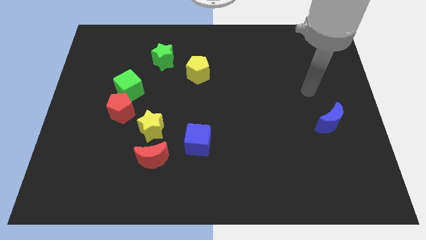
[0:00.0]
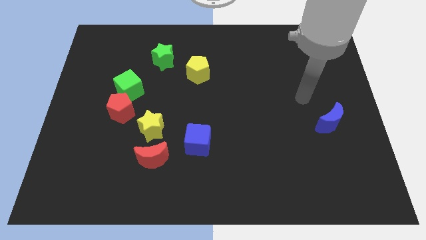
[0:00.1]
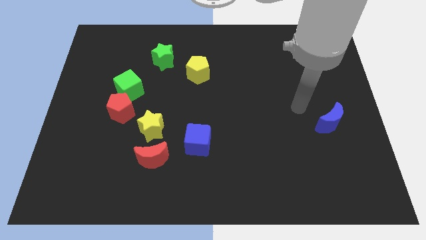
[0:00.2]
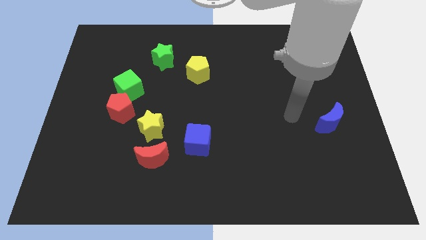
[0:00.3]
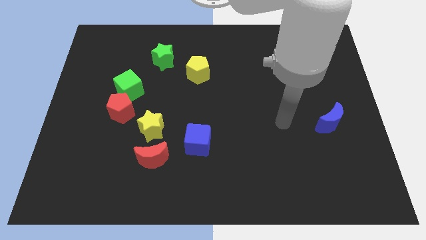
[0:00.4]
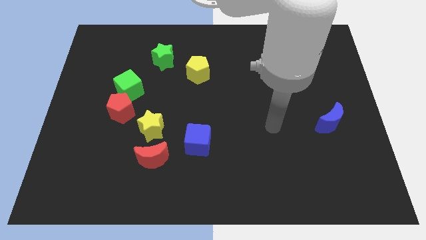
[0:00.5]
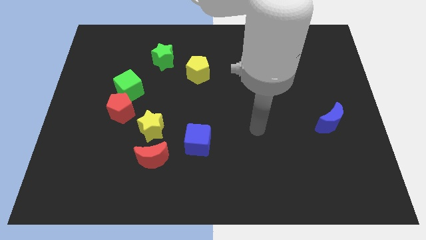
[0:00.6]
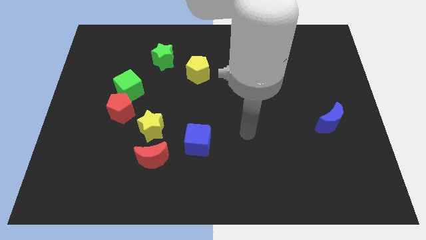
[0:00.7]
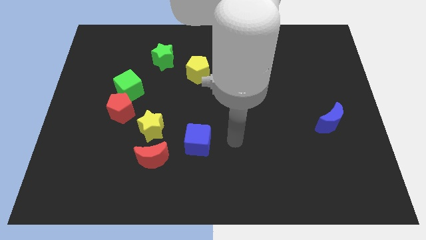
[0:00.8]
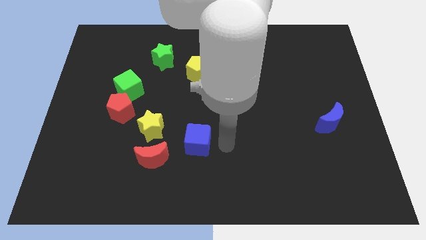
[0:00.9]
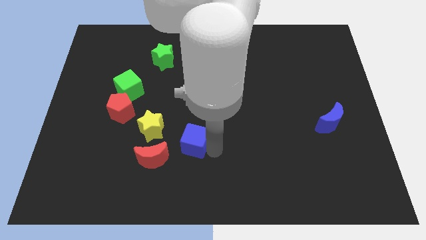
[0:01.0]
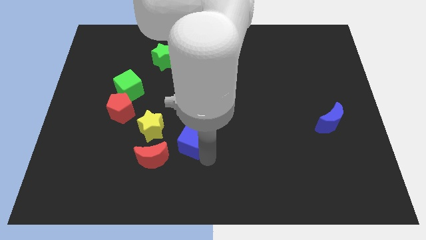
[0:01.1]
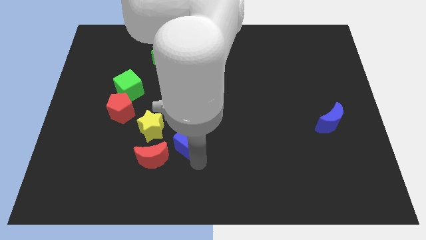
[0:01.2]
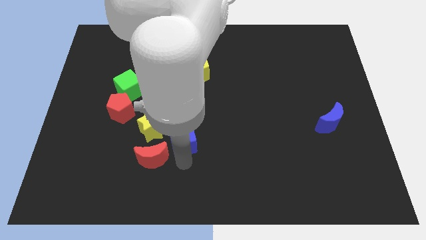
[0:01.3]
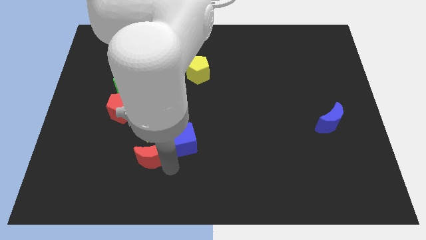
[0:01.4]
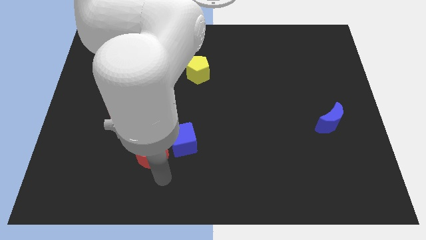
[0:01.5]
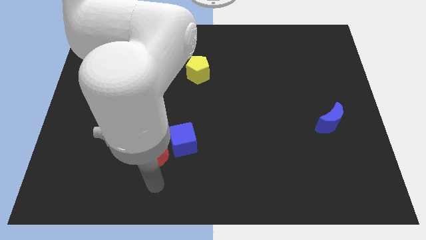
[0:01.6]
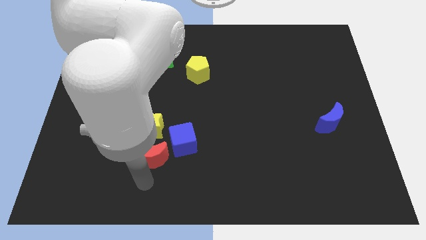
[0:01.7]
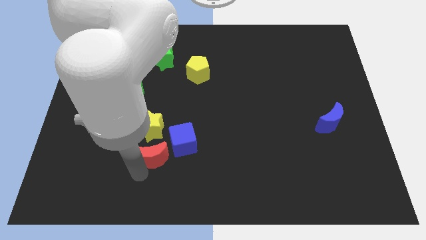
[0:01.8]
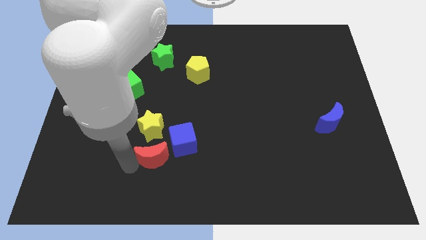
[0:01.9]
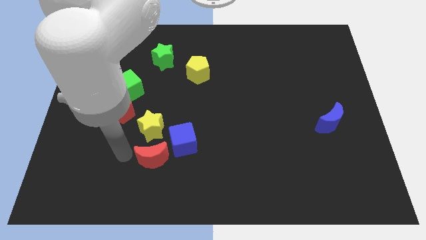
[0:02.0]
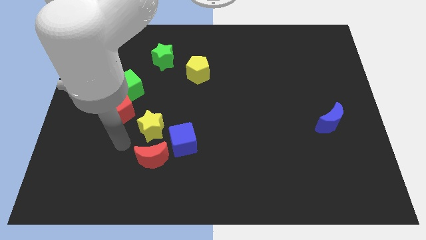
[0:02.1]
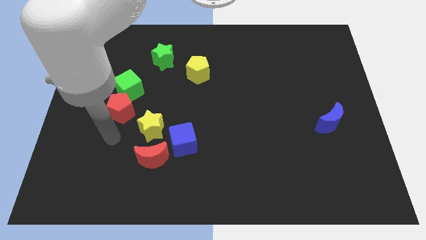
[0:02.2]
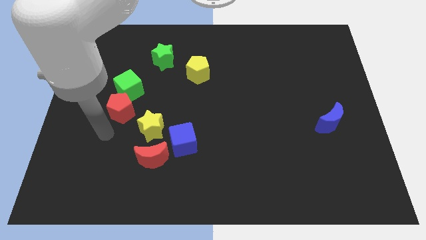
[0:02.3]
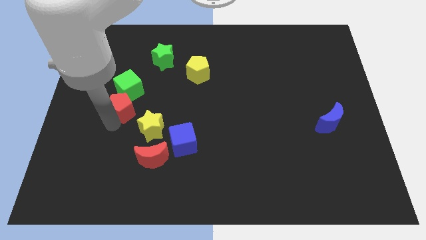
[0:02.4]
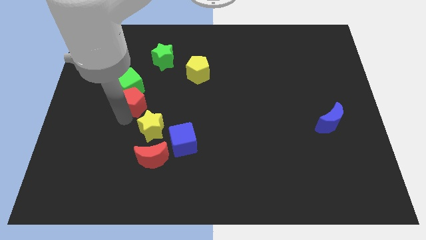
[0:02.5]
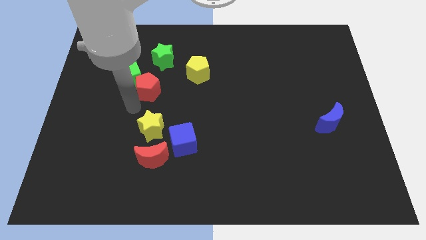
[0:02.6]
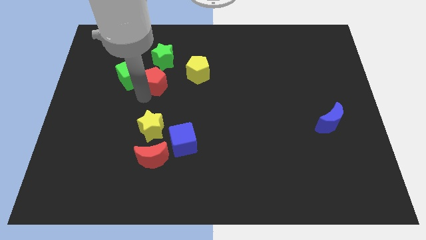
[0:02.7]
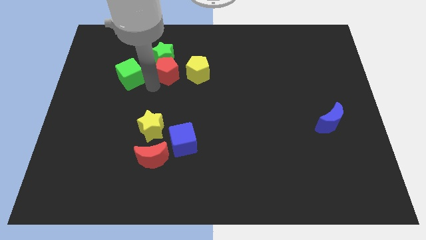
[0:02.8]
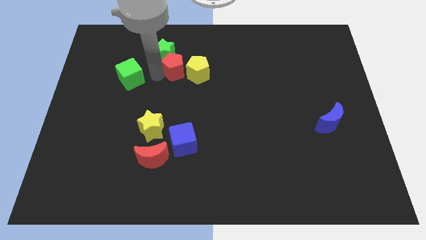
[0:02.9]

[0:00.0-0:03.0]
separate the green cube from the red pentagon

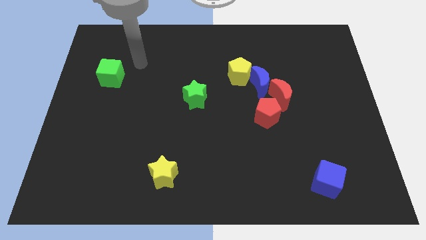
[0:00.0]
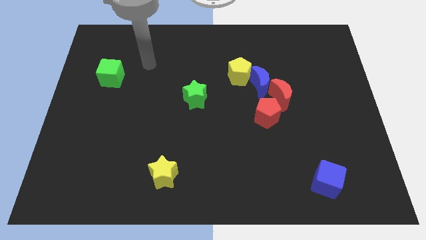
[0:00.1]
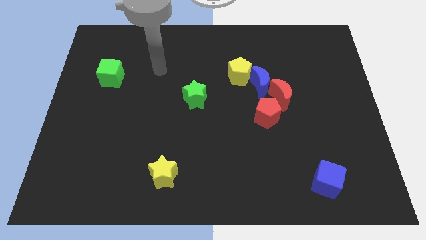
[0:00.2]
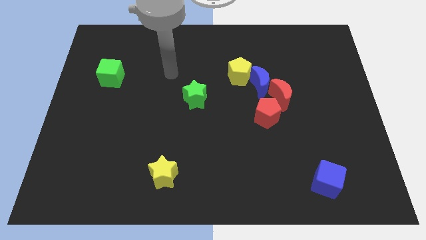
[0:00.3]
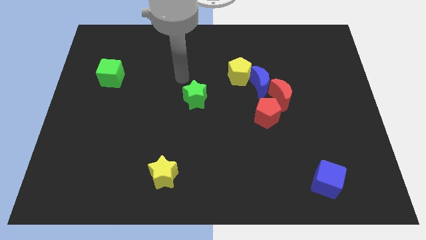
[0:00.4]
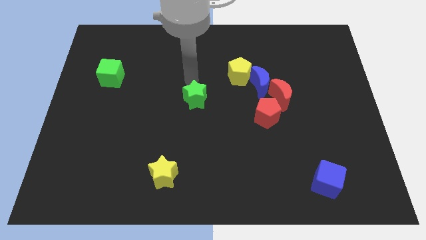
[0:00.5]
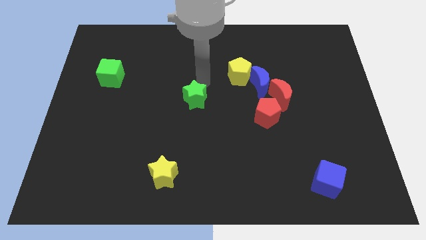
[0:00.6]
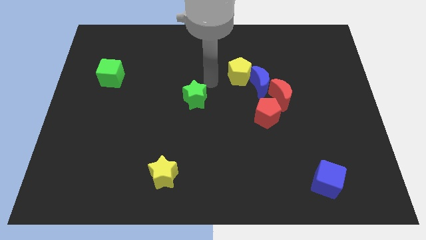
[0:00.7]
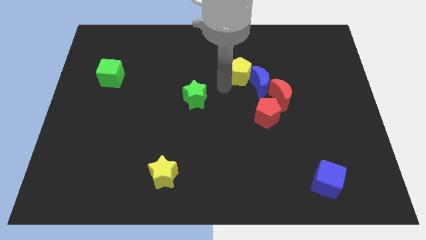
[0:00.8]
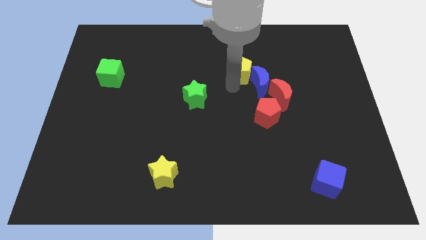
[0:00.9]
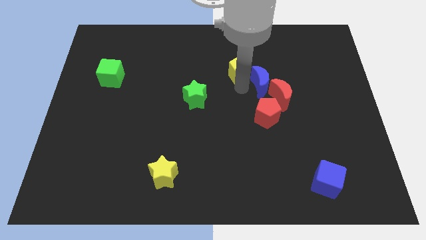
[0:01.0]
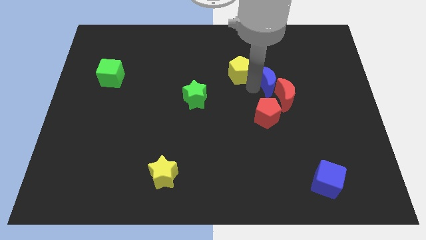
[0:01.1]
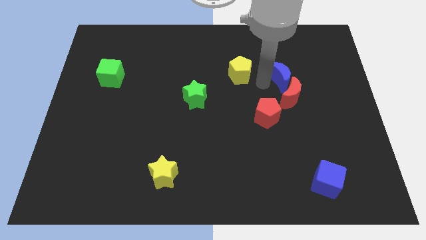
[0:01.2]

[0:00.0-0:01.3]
move the yellow pentagon away from the blue moon

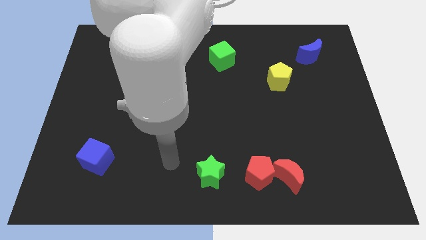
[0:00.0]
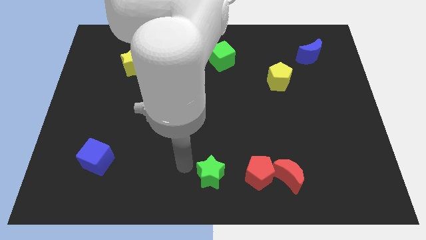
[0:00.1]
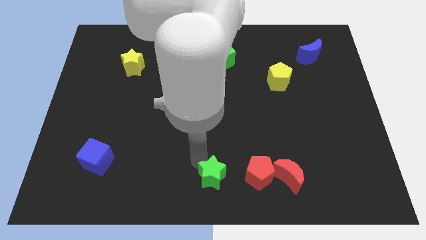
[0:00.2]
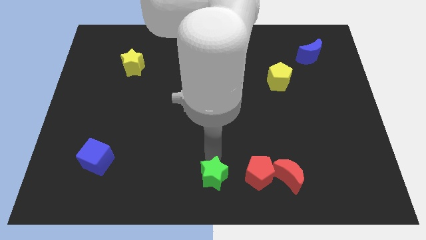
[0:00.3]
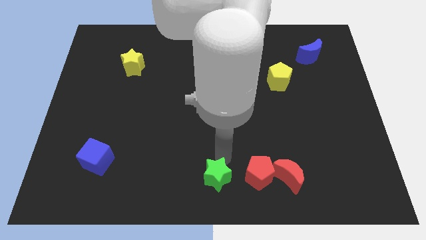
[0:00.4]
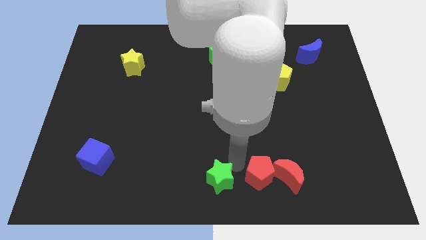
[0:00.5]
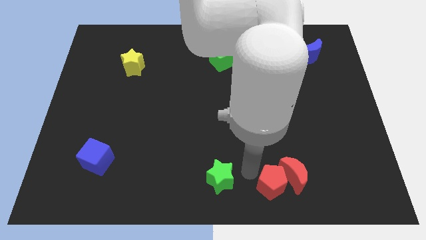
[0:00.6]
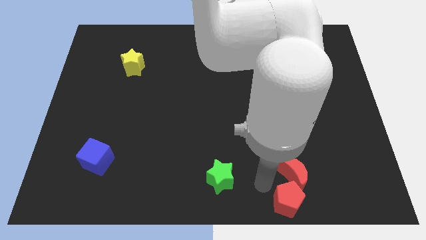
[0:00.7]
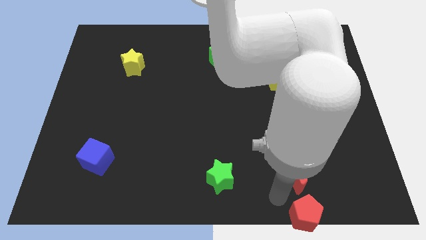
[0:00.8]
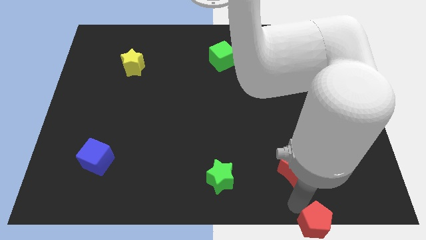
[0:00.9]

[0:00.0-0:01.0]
separate the red moon from the red pentagon

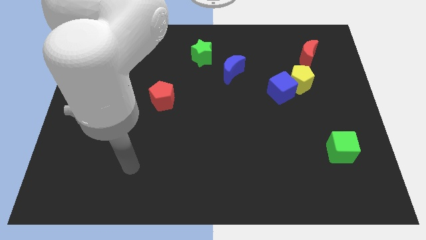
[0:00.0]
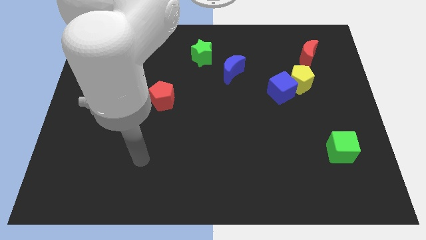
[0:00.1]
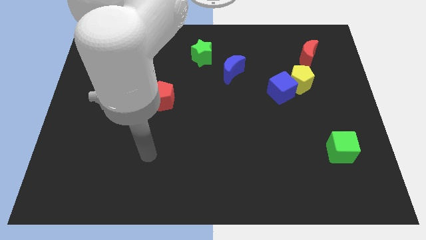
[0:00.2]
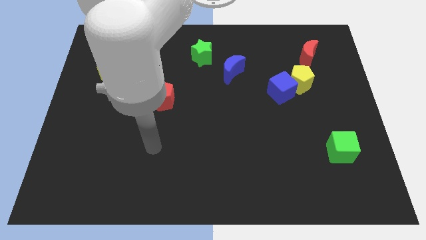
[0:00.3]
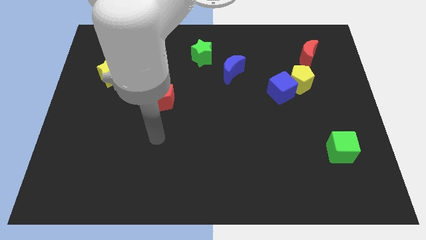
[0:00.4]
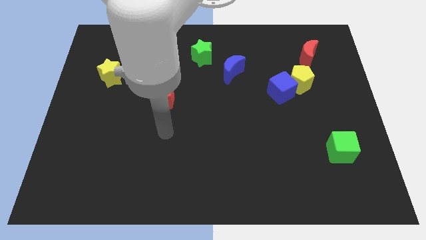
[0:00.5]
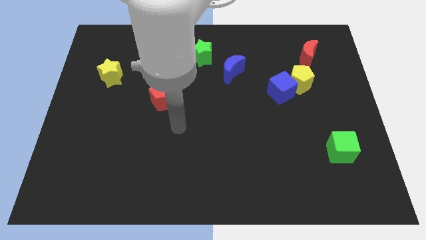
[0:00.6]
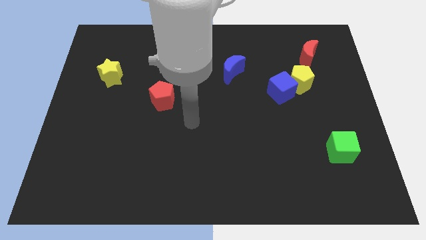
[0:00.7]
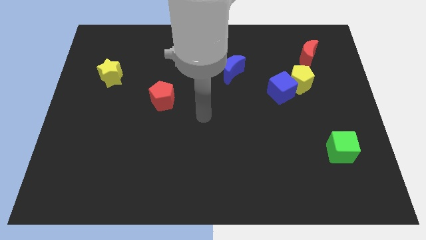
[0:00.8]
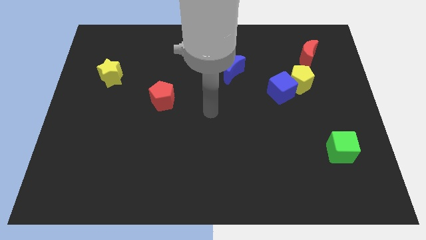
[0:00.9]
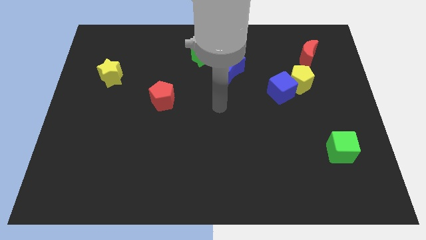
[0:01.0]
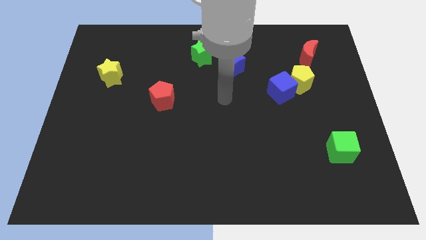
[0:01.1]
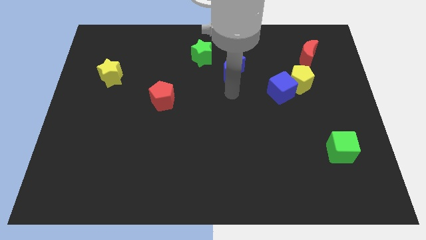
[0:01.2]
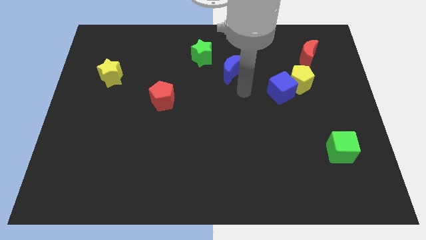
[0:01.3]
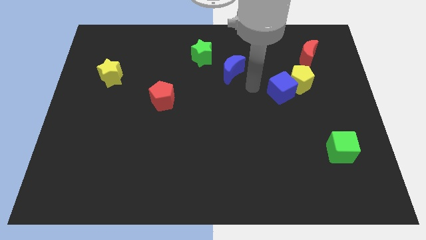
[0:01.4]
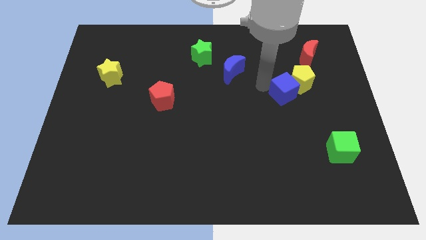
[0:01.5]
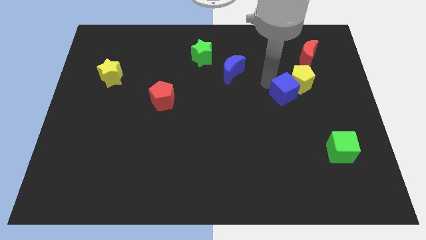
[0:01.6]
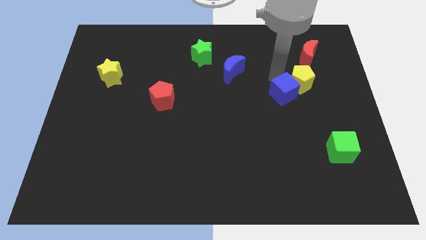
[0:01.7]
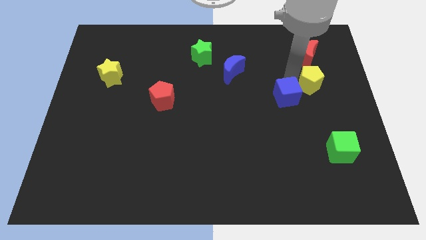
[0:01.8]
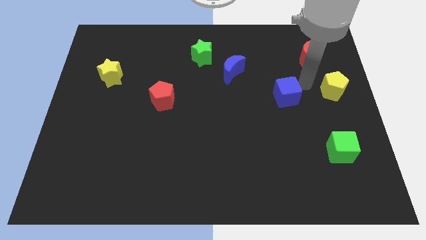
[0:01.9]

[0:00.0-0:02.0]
pull the blue cube apart from the yellow pentagon

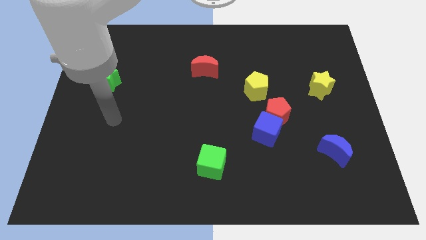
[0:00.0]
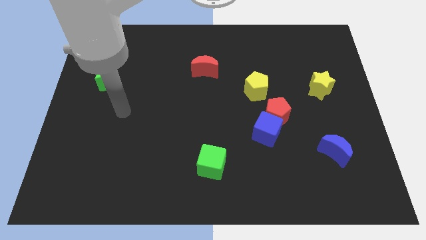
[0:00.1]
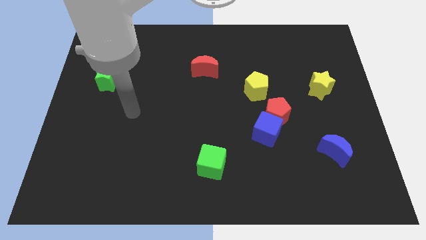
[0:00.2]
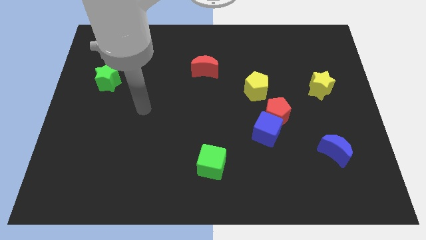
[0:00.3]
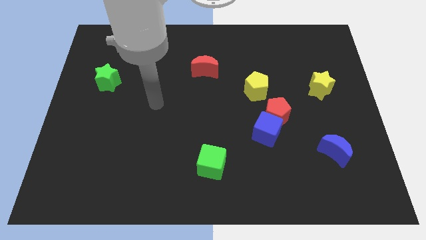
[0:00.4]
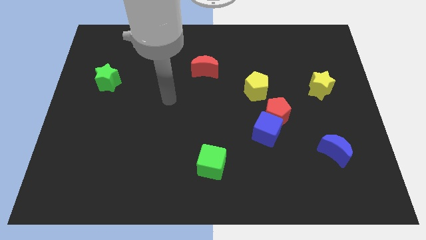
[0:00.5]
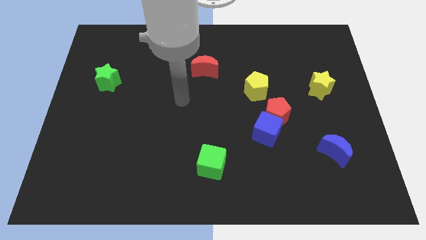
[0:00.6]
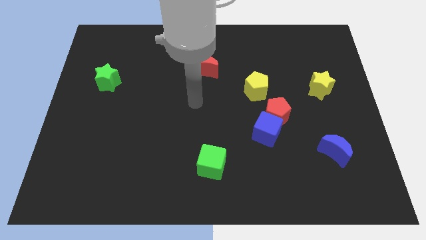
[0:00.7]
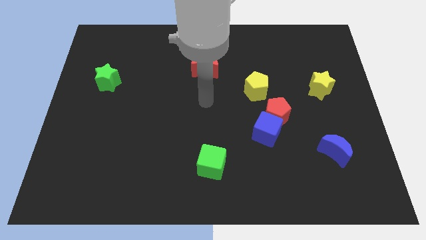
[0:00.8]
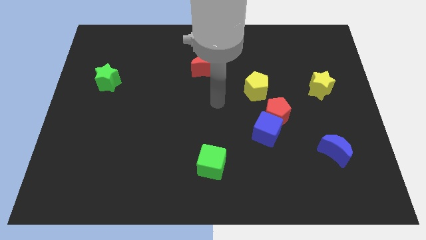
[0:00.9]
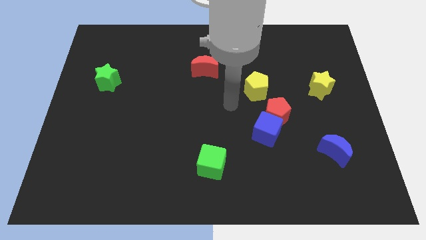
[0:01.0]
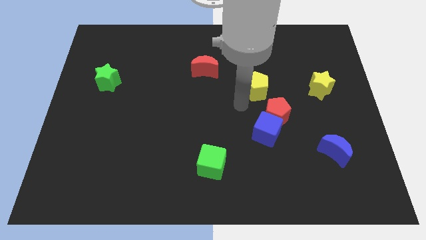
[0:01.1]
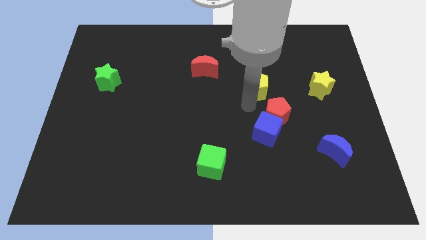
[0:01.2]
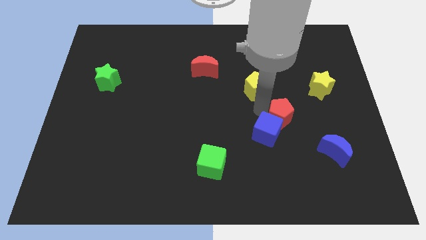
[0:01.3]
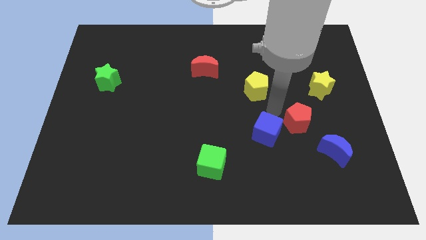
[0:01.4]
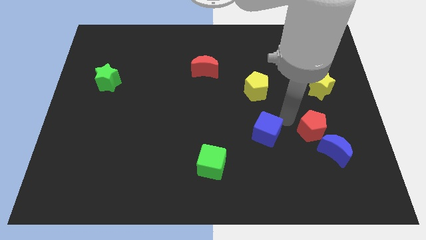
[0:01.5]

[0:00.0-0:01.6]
separate the blue cube from the red pentagon

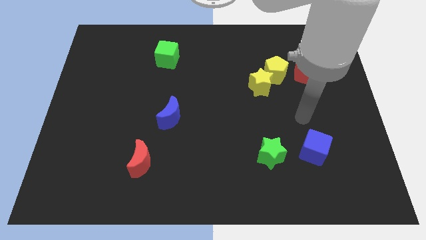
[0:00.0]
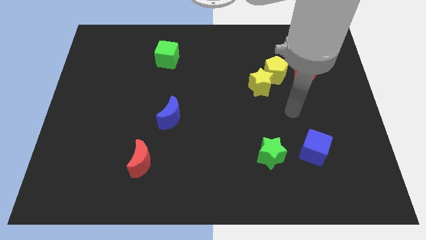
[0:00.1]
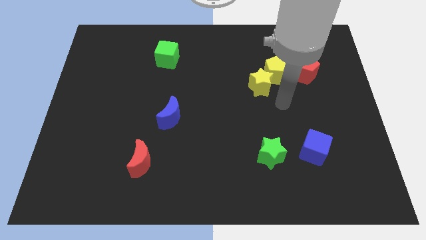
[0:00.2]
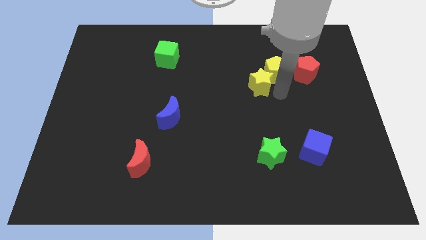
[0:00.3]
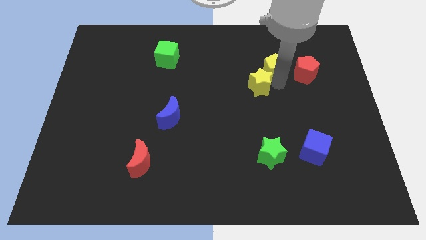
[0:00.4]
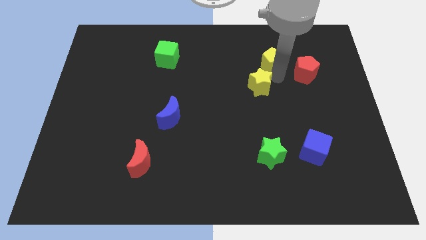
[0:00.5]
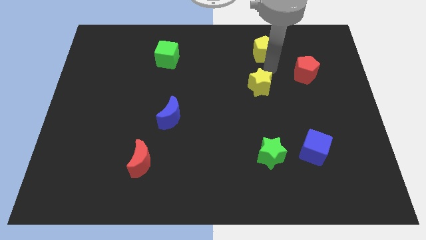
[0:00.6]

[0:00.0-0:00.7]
pull the yellow star apart from the yellow pentagon
